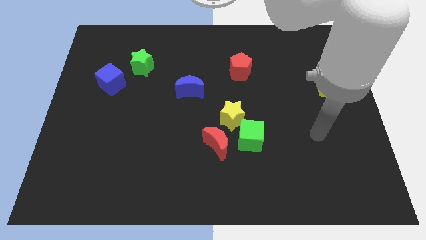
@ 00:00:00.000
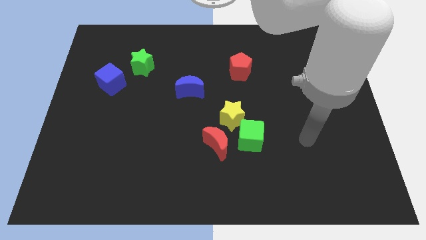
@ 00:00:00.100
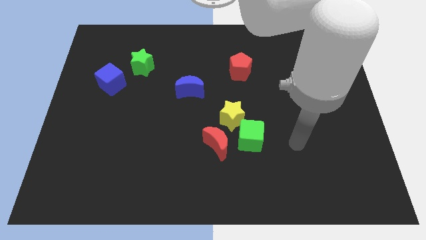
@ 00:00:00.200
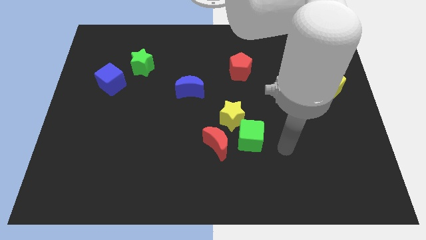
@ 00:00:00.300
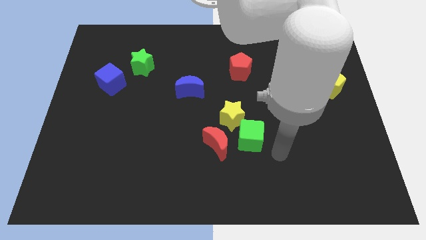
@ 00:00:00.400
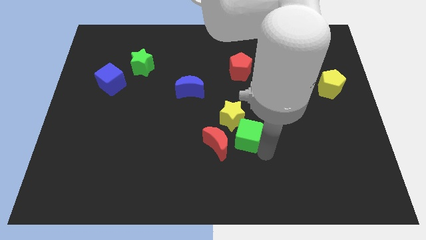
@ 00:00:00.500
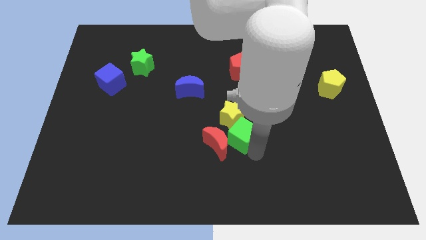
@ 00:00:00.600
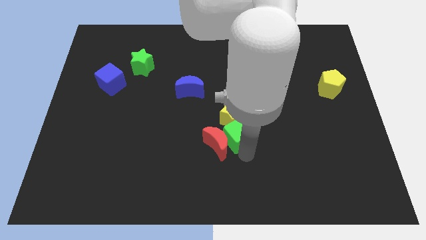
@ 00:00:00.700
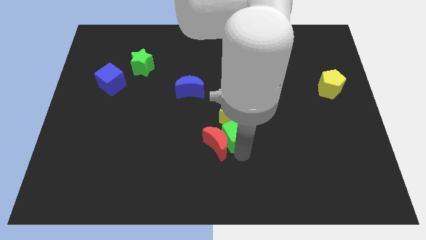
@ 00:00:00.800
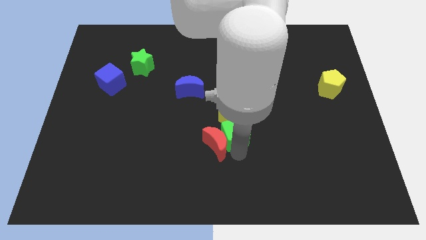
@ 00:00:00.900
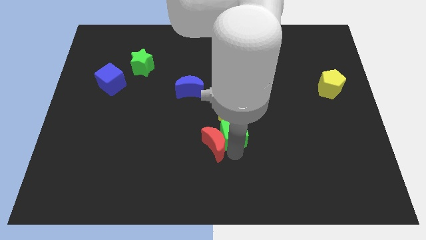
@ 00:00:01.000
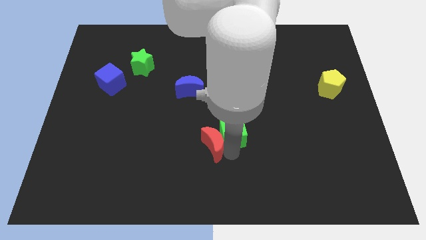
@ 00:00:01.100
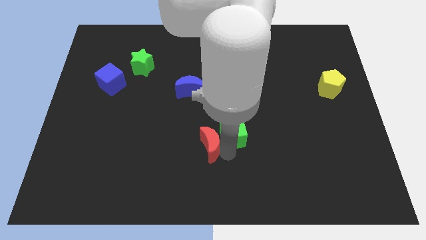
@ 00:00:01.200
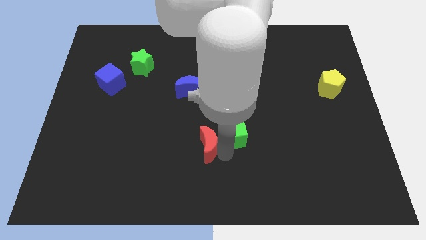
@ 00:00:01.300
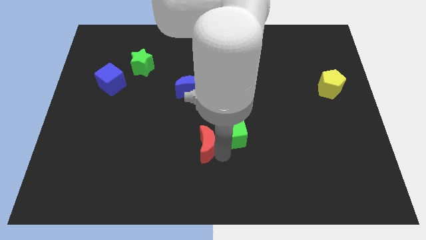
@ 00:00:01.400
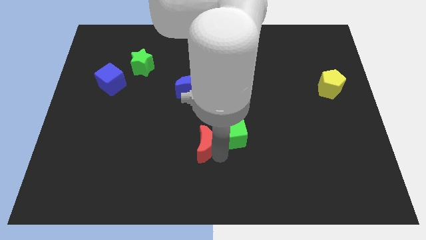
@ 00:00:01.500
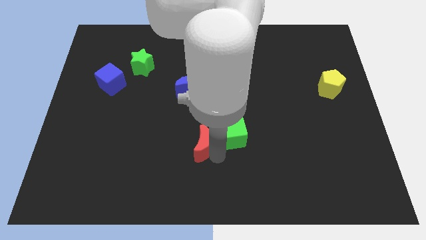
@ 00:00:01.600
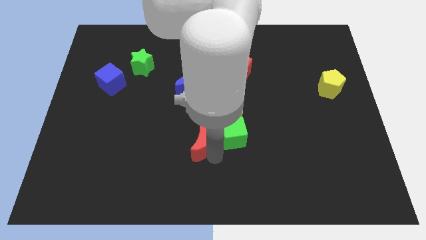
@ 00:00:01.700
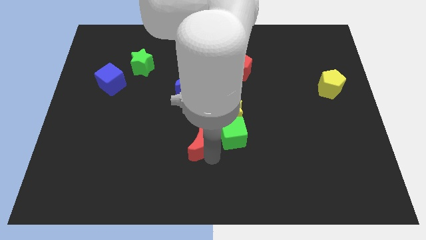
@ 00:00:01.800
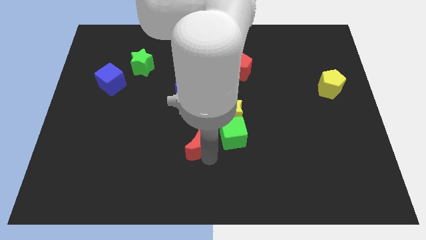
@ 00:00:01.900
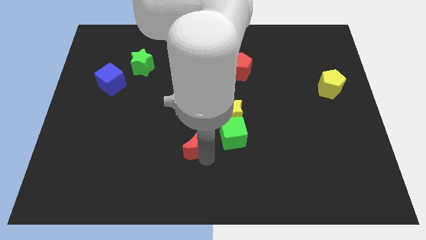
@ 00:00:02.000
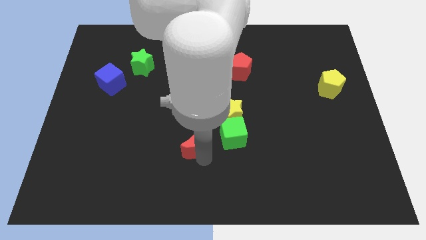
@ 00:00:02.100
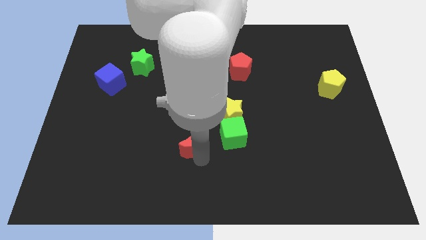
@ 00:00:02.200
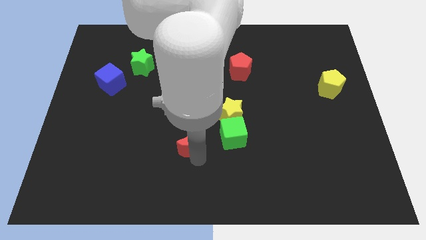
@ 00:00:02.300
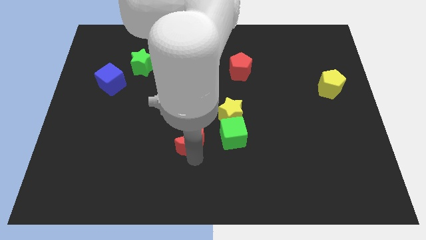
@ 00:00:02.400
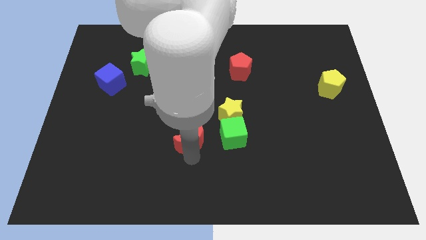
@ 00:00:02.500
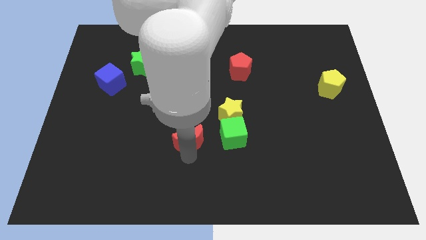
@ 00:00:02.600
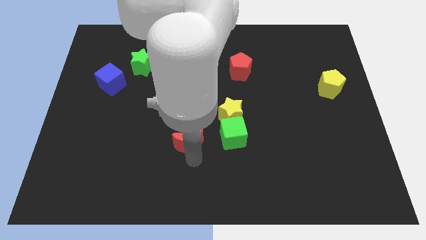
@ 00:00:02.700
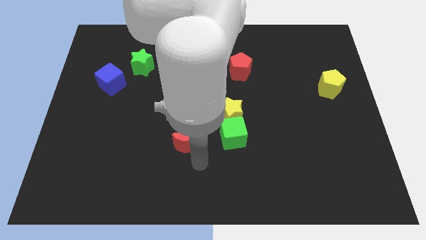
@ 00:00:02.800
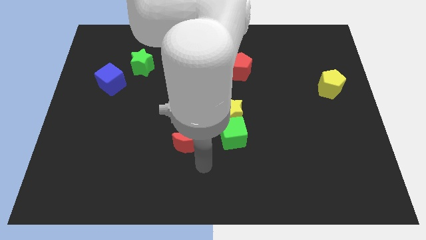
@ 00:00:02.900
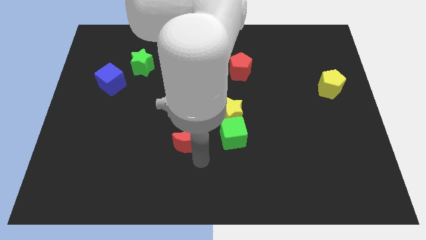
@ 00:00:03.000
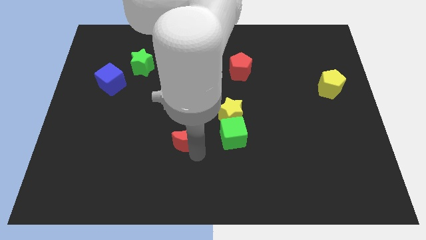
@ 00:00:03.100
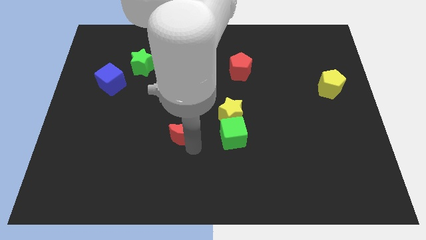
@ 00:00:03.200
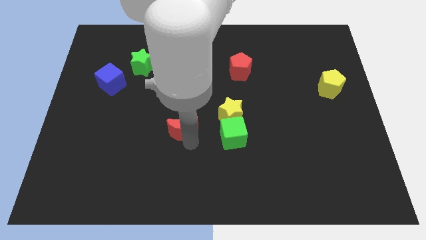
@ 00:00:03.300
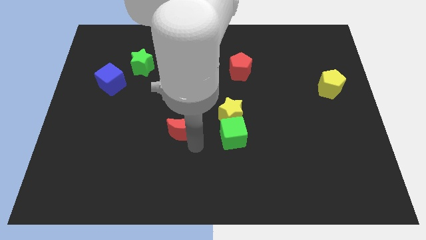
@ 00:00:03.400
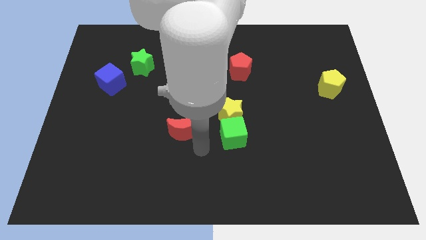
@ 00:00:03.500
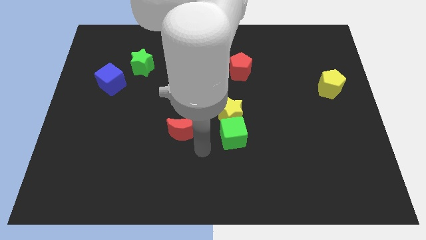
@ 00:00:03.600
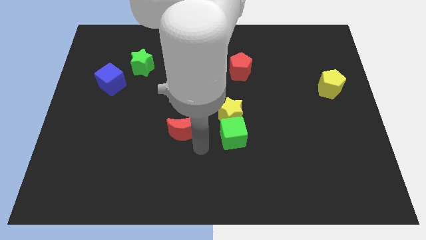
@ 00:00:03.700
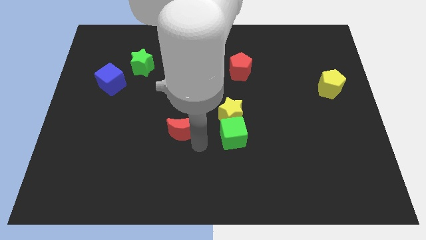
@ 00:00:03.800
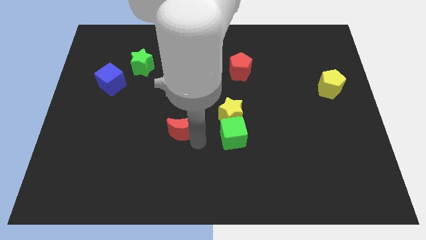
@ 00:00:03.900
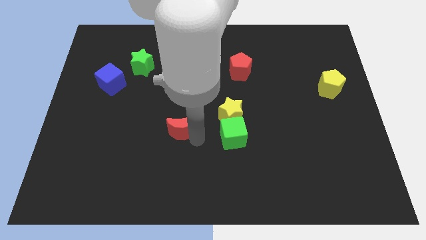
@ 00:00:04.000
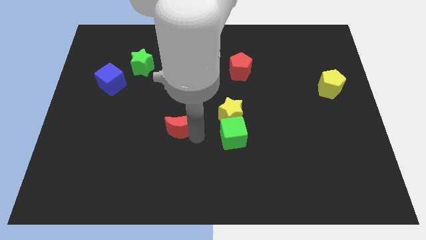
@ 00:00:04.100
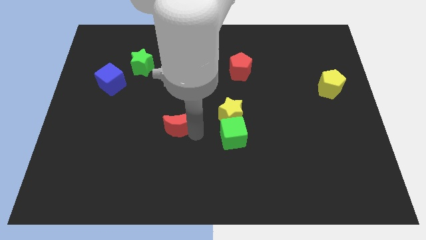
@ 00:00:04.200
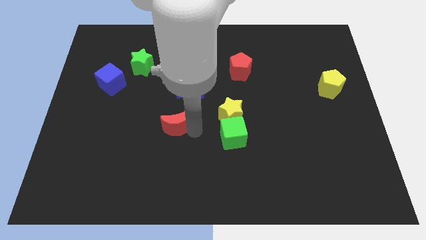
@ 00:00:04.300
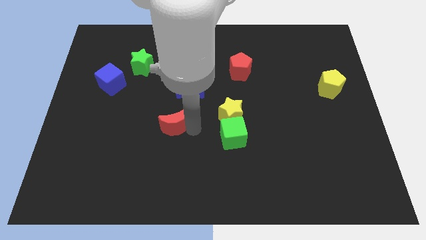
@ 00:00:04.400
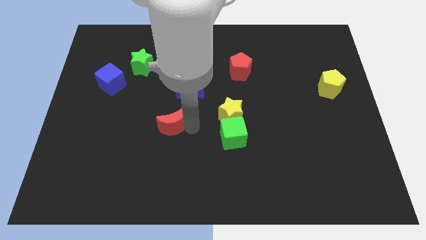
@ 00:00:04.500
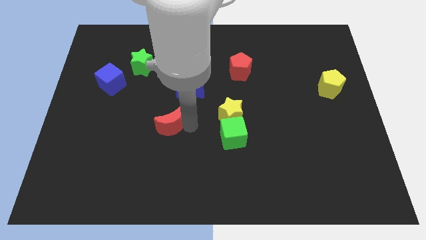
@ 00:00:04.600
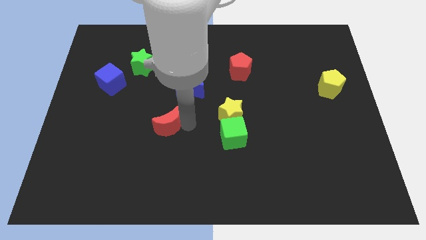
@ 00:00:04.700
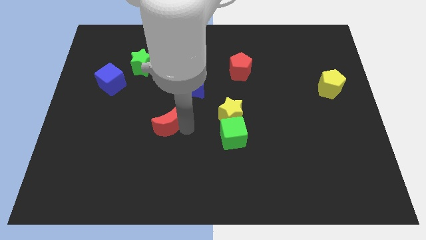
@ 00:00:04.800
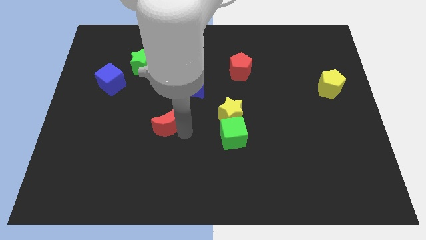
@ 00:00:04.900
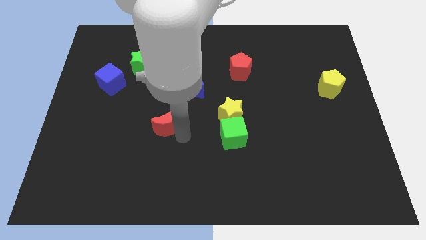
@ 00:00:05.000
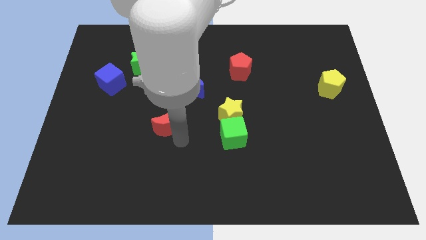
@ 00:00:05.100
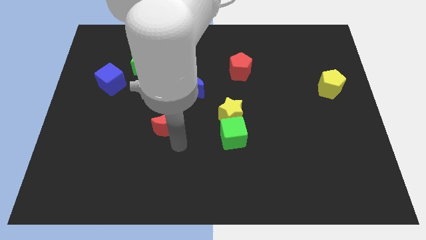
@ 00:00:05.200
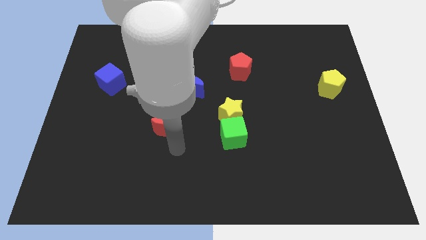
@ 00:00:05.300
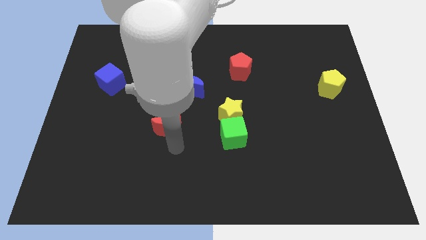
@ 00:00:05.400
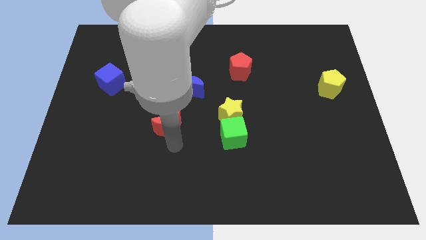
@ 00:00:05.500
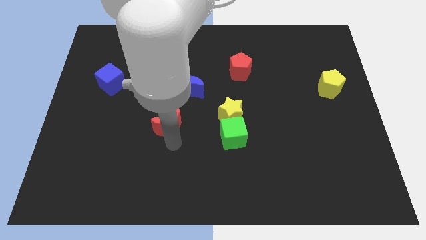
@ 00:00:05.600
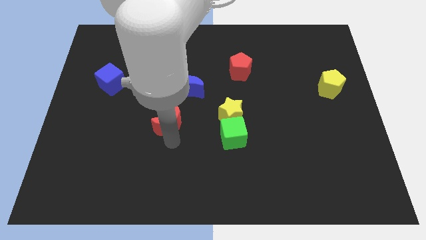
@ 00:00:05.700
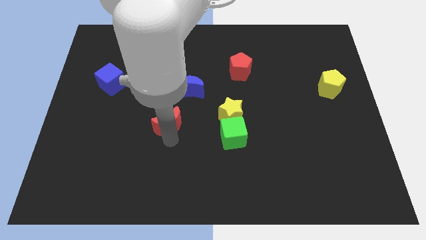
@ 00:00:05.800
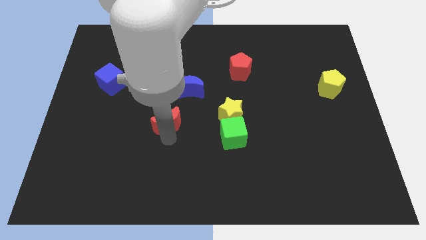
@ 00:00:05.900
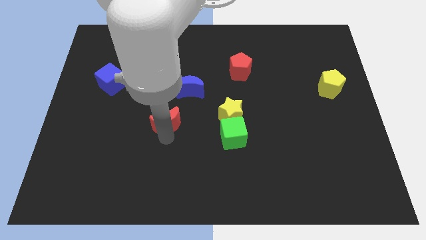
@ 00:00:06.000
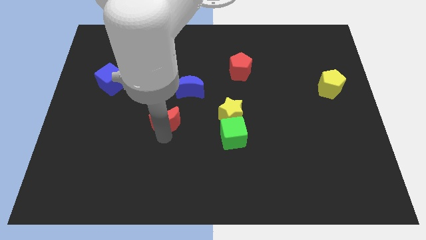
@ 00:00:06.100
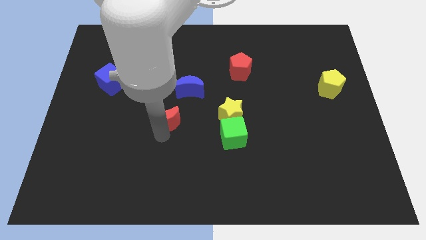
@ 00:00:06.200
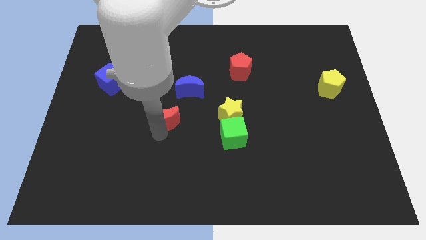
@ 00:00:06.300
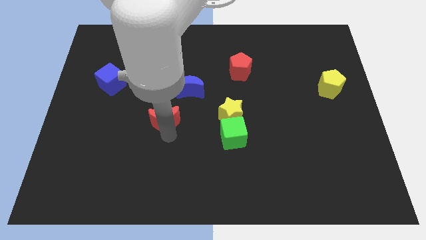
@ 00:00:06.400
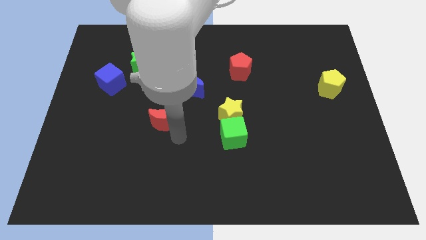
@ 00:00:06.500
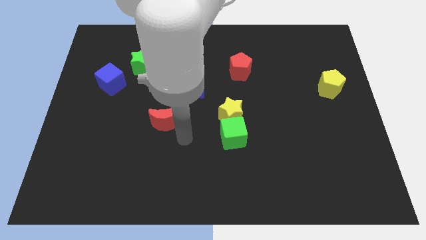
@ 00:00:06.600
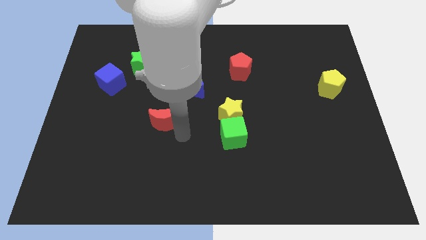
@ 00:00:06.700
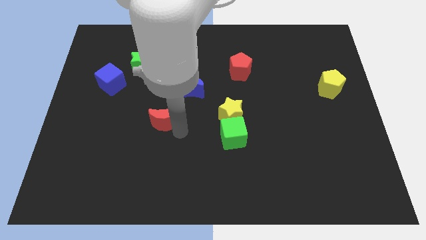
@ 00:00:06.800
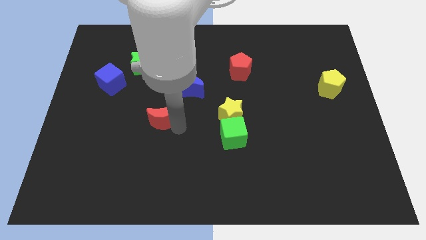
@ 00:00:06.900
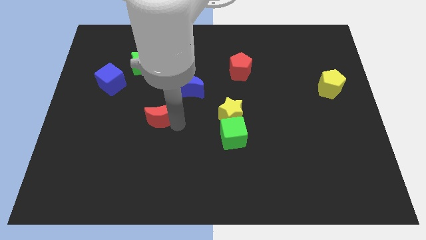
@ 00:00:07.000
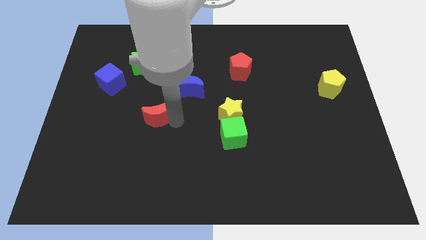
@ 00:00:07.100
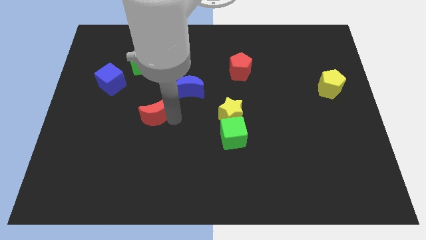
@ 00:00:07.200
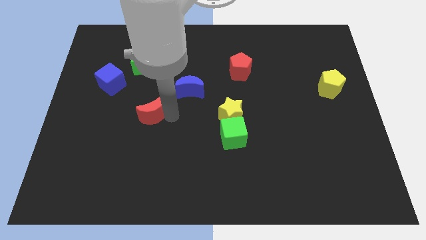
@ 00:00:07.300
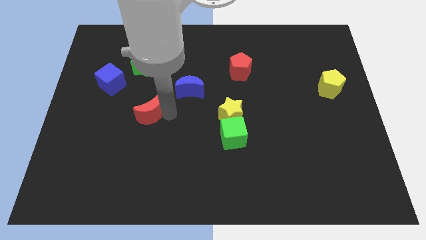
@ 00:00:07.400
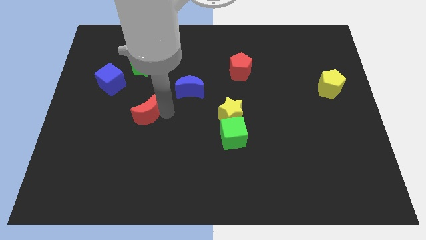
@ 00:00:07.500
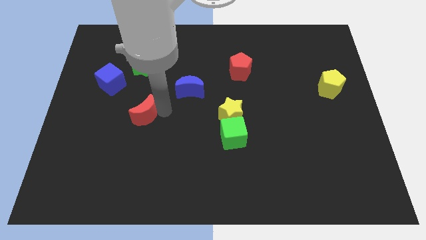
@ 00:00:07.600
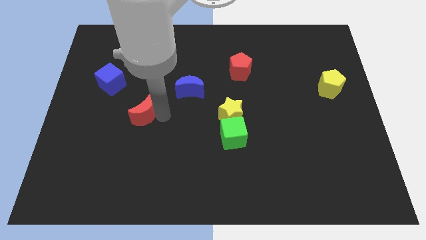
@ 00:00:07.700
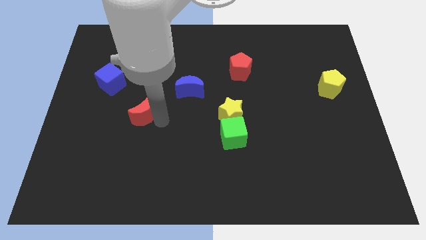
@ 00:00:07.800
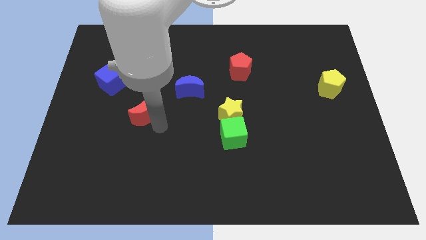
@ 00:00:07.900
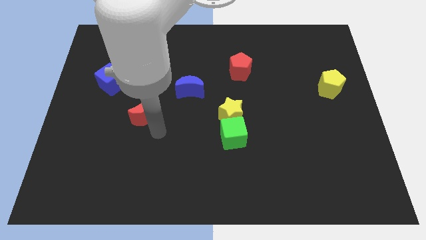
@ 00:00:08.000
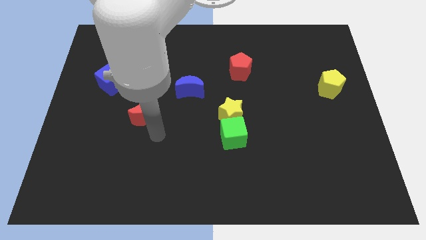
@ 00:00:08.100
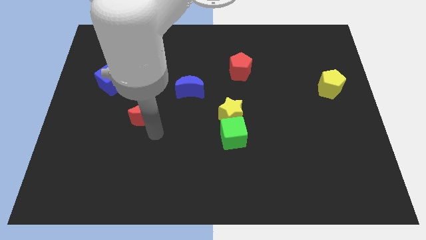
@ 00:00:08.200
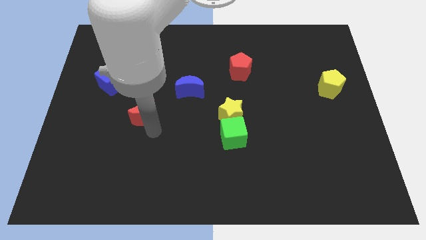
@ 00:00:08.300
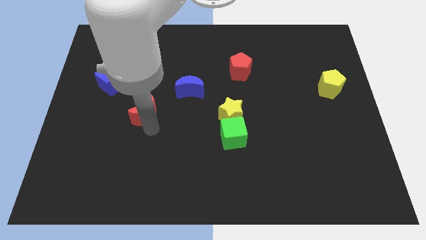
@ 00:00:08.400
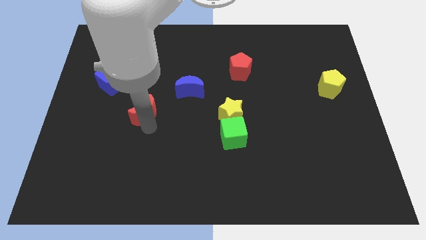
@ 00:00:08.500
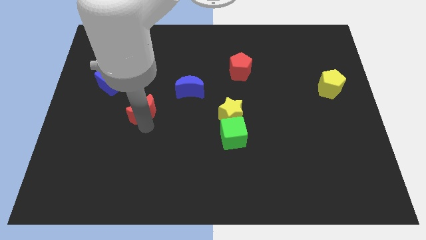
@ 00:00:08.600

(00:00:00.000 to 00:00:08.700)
slide the red moon to the bottom side of the green star
